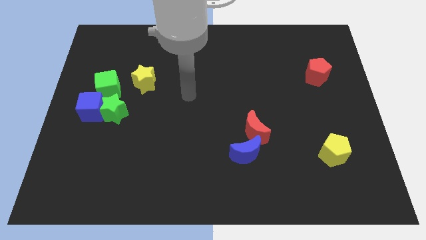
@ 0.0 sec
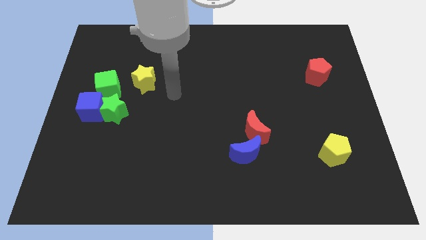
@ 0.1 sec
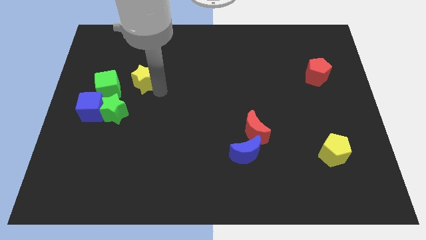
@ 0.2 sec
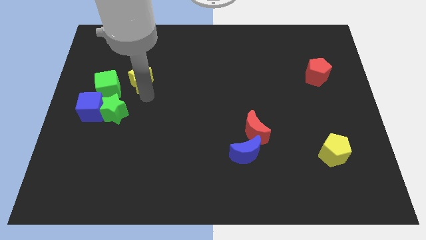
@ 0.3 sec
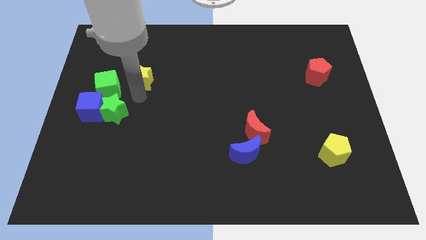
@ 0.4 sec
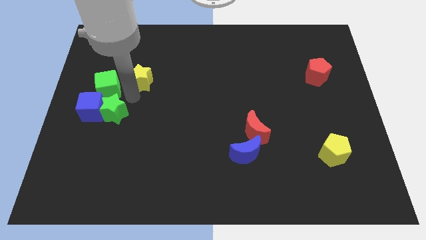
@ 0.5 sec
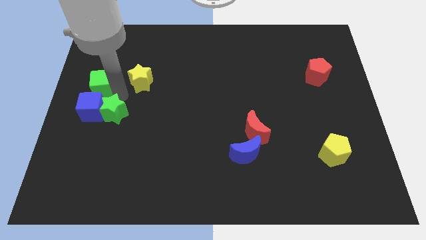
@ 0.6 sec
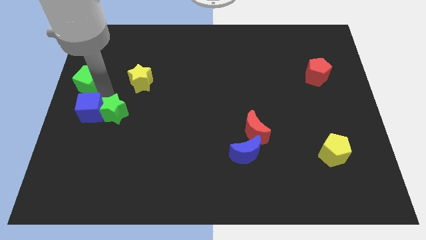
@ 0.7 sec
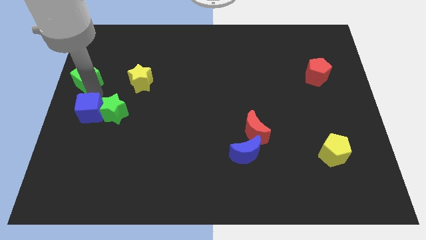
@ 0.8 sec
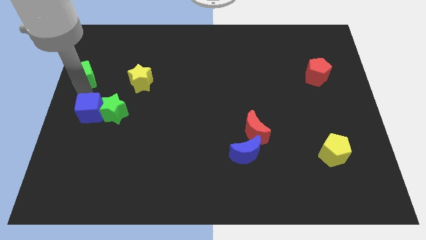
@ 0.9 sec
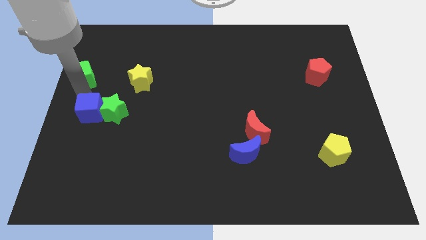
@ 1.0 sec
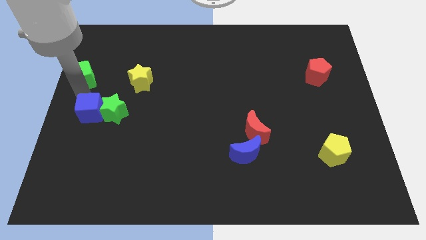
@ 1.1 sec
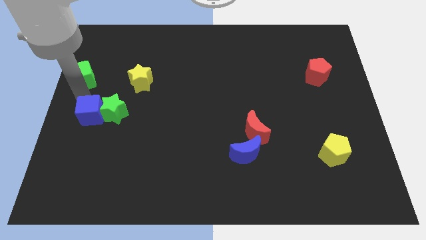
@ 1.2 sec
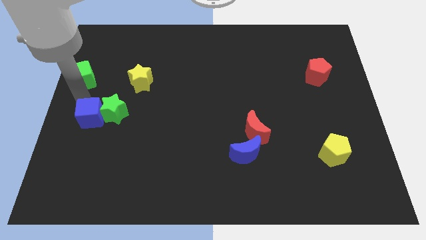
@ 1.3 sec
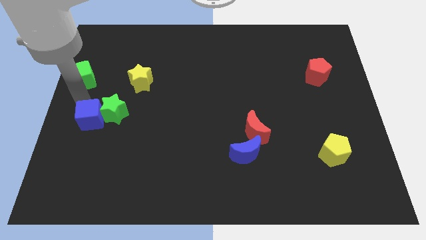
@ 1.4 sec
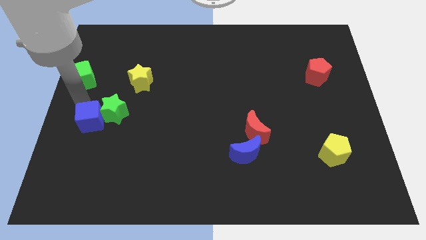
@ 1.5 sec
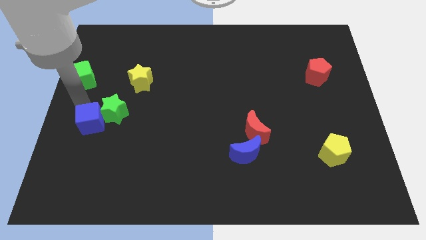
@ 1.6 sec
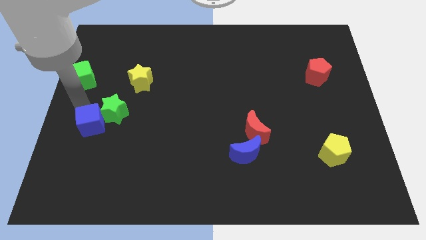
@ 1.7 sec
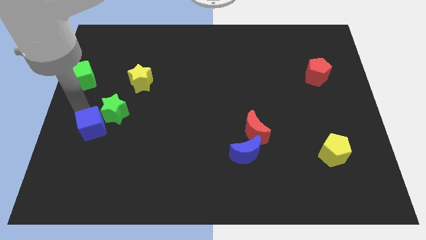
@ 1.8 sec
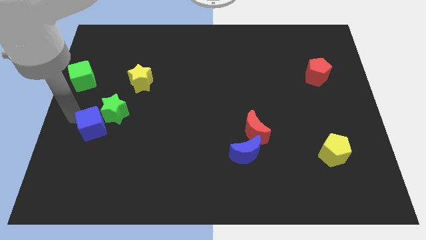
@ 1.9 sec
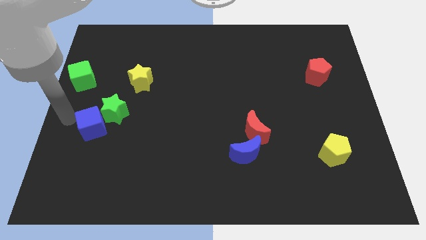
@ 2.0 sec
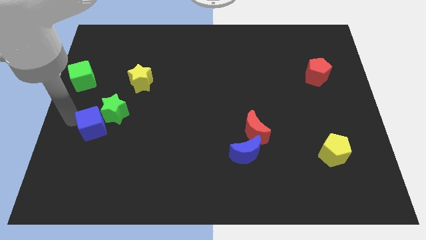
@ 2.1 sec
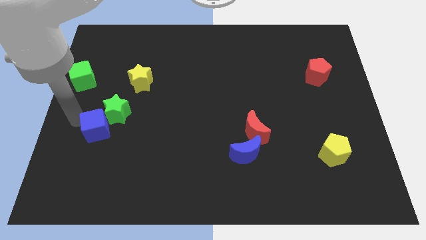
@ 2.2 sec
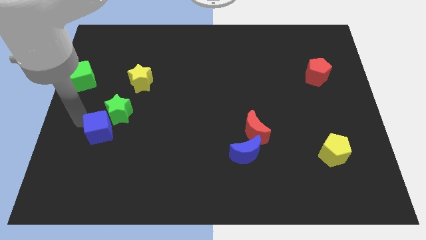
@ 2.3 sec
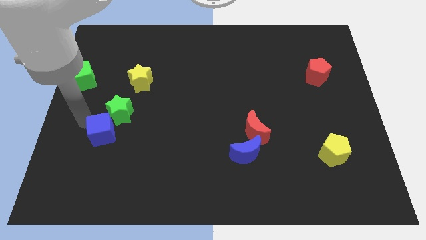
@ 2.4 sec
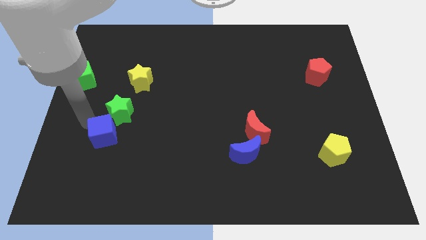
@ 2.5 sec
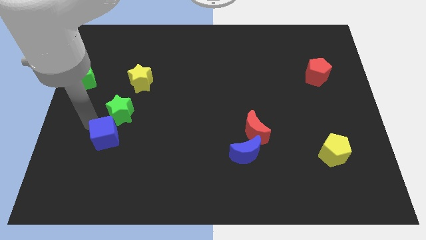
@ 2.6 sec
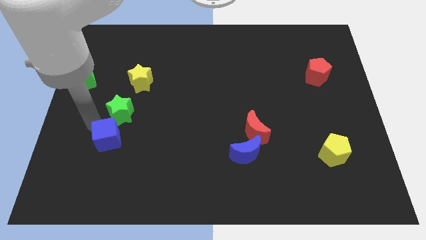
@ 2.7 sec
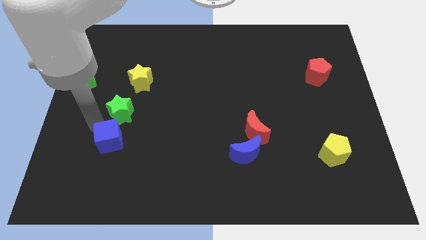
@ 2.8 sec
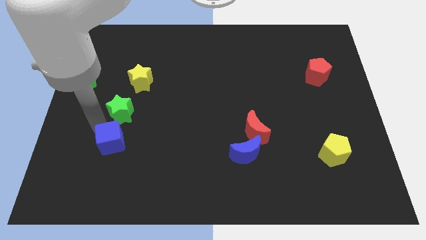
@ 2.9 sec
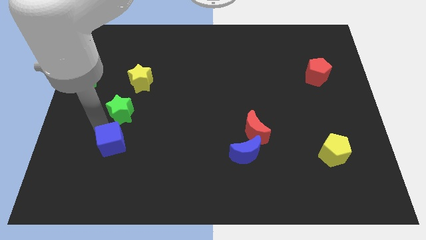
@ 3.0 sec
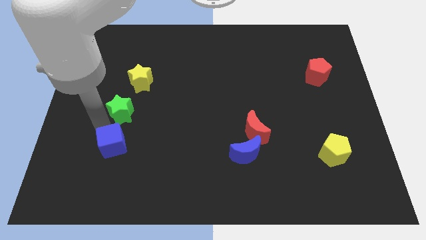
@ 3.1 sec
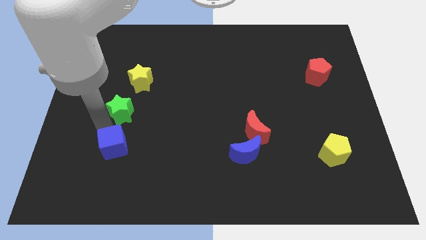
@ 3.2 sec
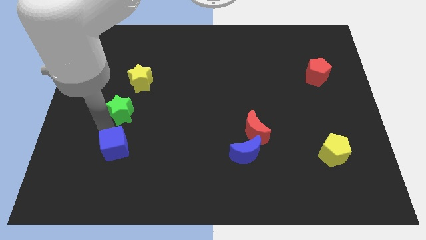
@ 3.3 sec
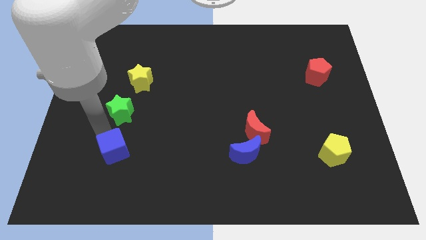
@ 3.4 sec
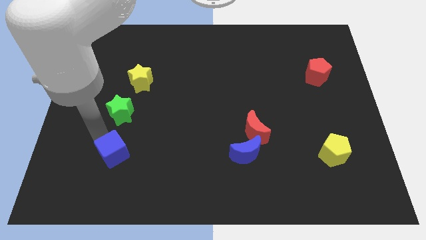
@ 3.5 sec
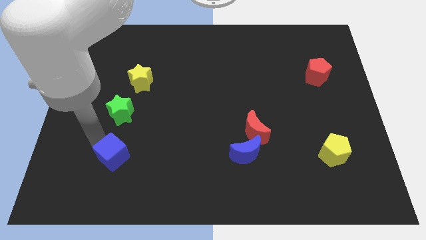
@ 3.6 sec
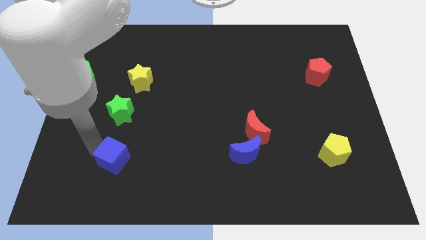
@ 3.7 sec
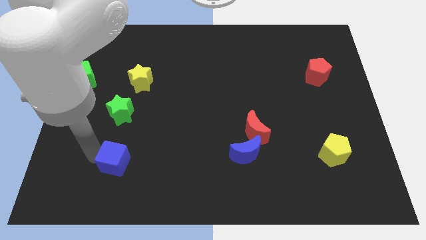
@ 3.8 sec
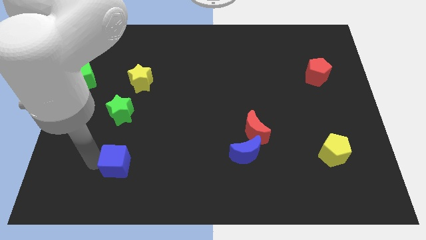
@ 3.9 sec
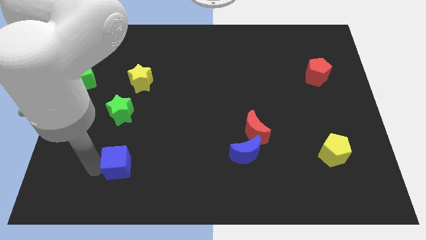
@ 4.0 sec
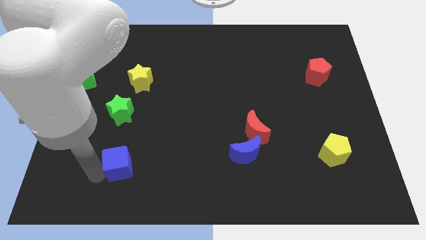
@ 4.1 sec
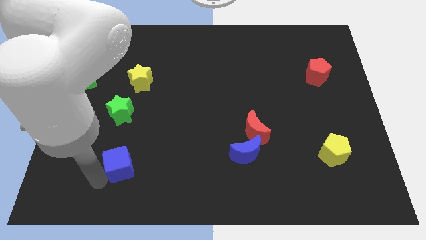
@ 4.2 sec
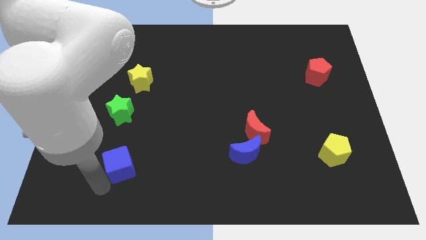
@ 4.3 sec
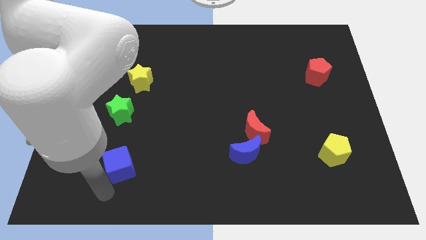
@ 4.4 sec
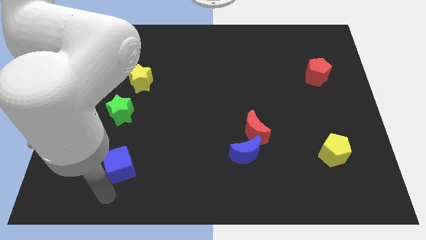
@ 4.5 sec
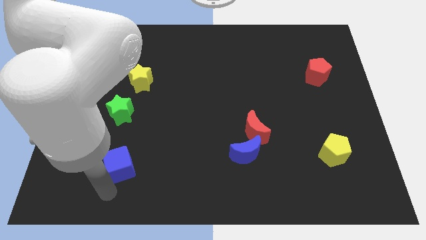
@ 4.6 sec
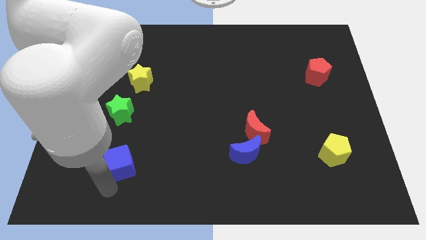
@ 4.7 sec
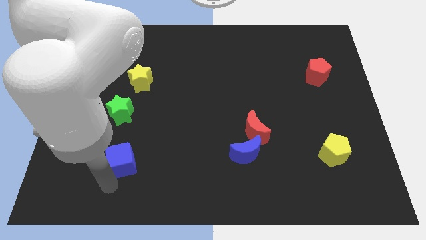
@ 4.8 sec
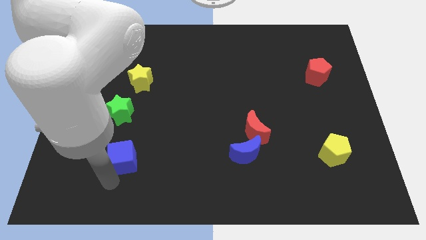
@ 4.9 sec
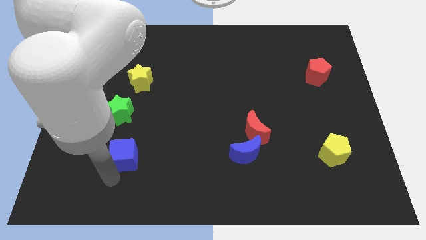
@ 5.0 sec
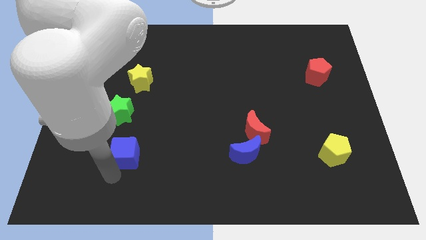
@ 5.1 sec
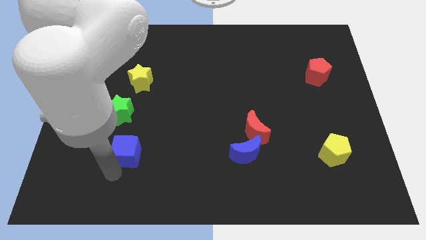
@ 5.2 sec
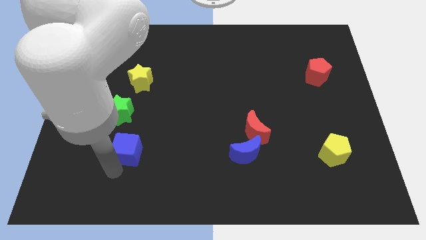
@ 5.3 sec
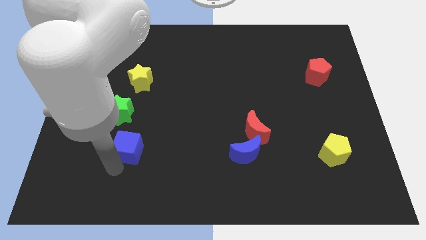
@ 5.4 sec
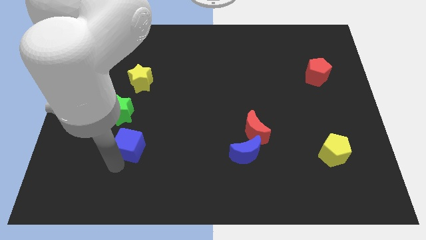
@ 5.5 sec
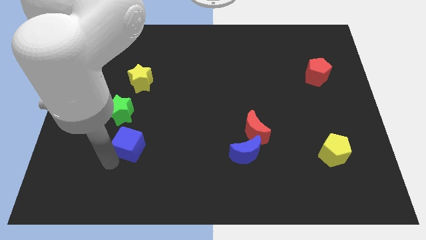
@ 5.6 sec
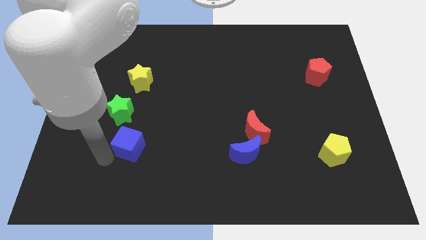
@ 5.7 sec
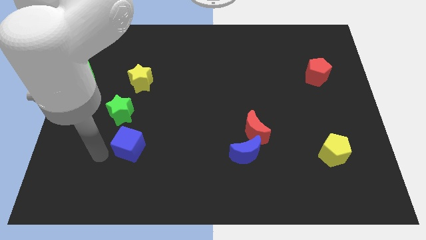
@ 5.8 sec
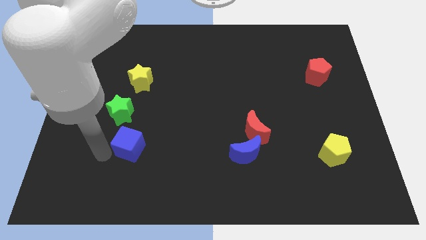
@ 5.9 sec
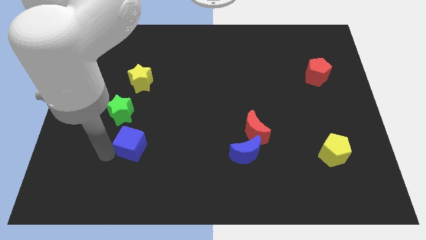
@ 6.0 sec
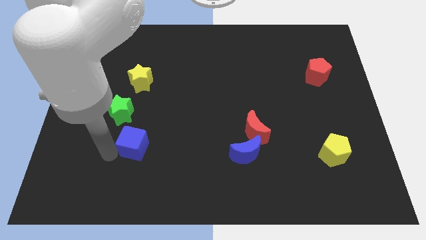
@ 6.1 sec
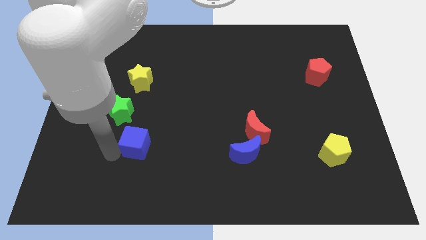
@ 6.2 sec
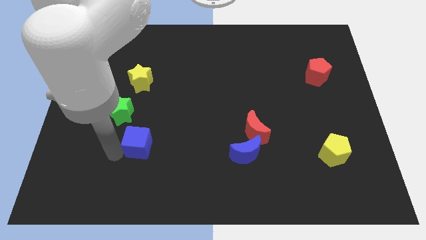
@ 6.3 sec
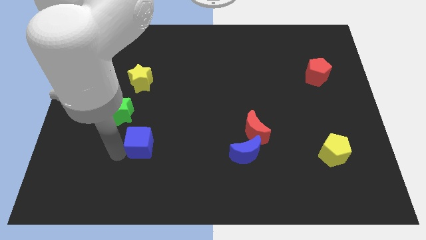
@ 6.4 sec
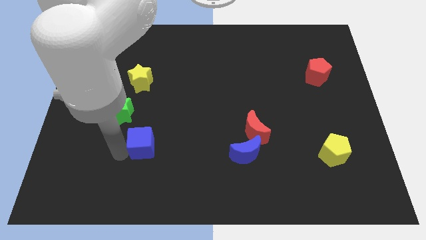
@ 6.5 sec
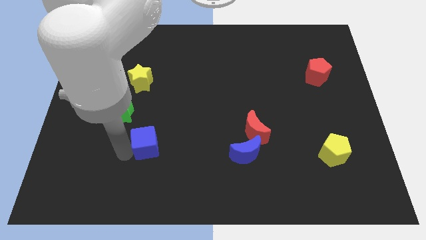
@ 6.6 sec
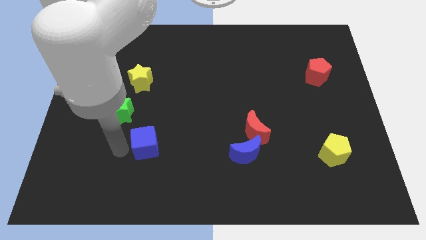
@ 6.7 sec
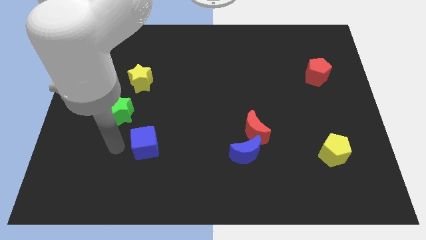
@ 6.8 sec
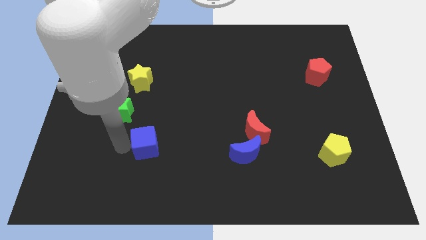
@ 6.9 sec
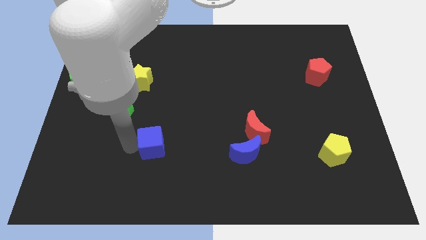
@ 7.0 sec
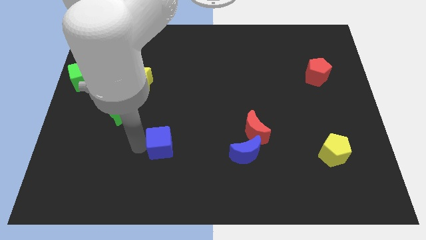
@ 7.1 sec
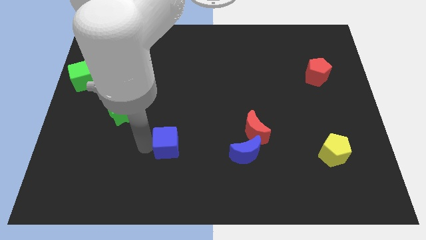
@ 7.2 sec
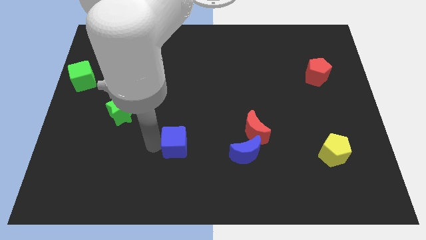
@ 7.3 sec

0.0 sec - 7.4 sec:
move the blue cube just left of the blue moon
